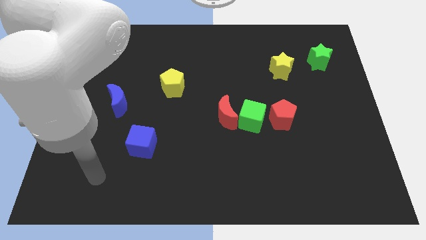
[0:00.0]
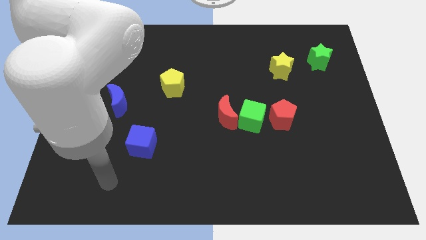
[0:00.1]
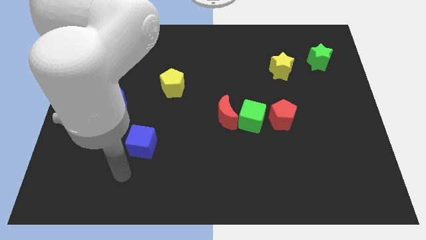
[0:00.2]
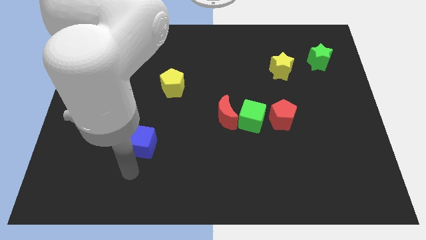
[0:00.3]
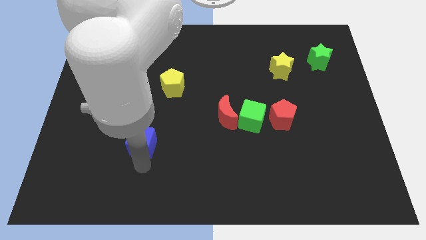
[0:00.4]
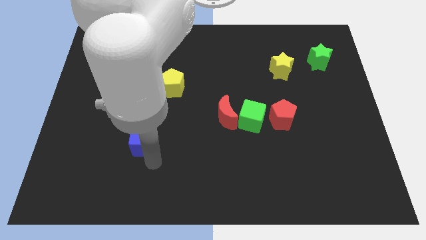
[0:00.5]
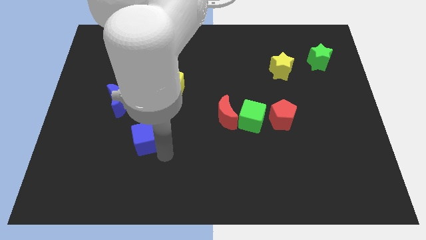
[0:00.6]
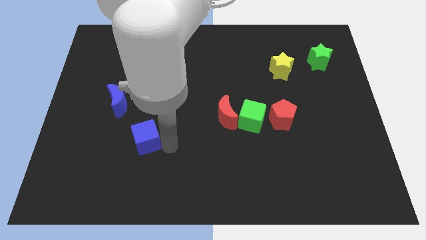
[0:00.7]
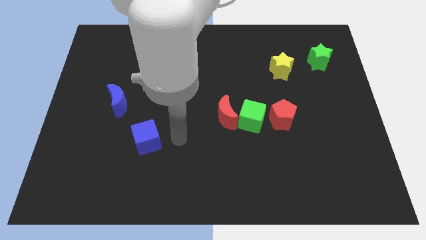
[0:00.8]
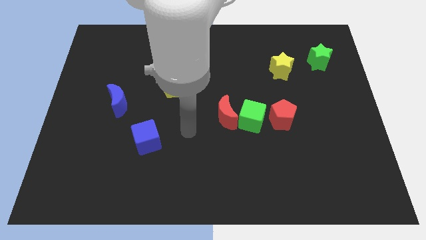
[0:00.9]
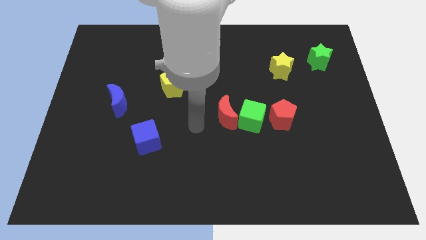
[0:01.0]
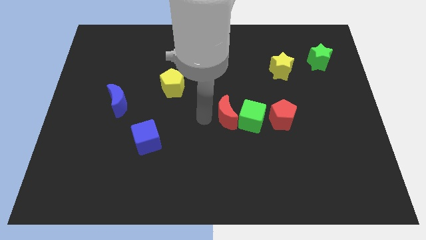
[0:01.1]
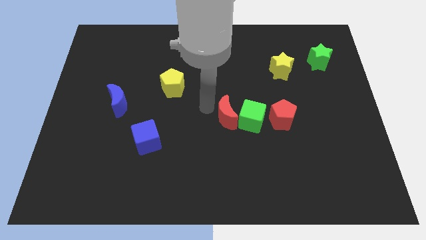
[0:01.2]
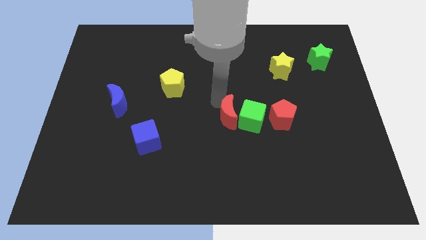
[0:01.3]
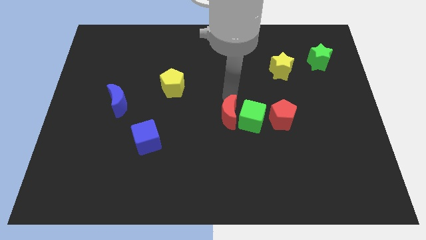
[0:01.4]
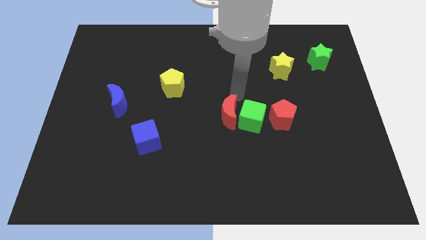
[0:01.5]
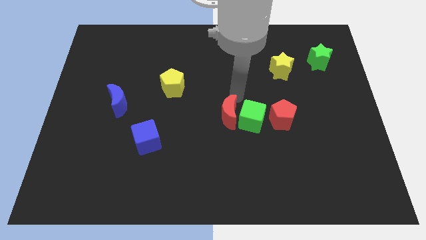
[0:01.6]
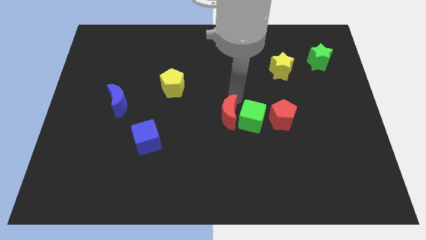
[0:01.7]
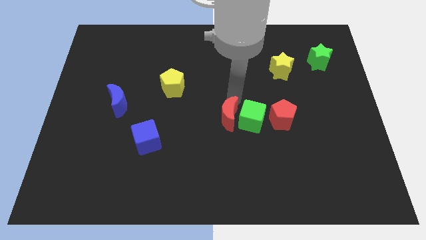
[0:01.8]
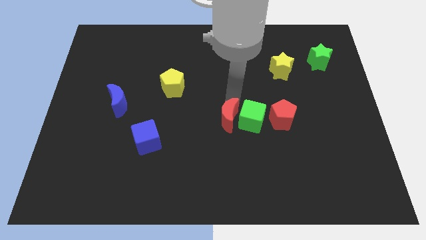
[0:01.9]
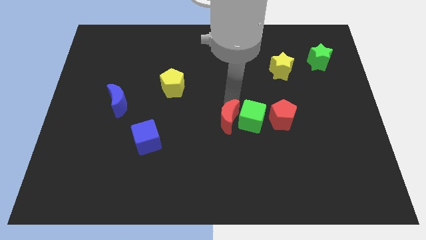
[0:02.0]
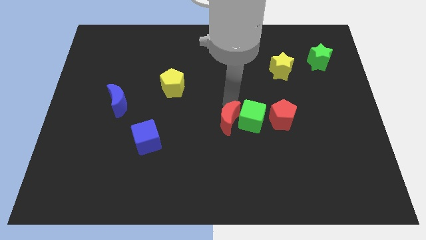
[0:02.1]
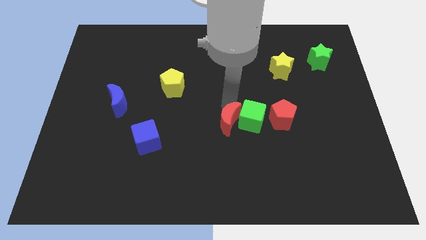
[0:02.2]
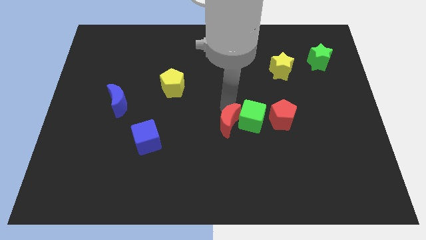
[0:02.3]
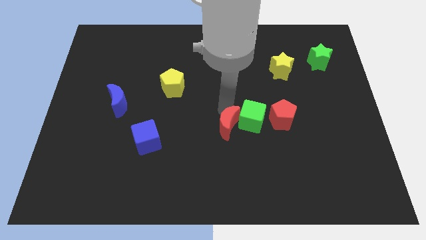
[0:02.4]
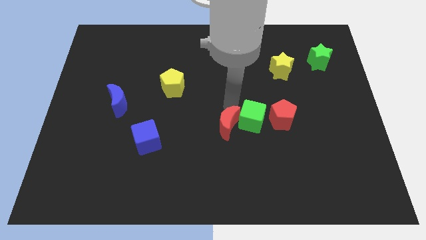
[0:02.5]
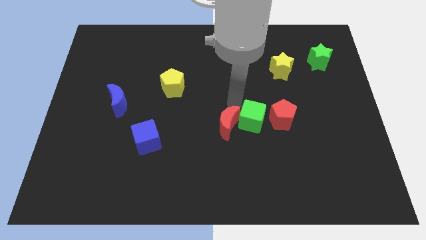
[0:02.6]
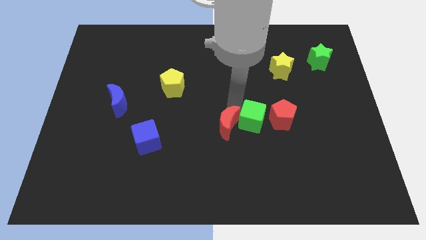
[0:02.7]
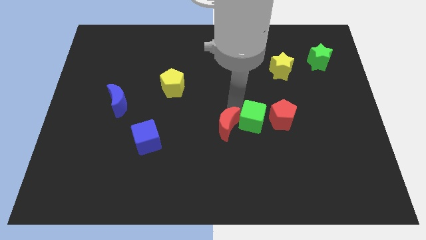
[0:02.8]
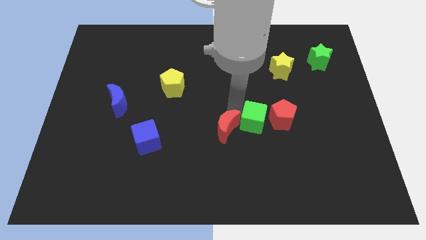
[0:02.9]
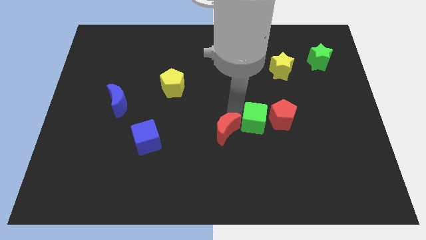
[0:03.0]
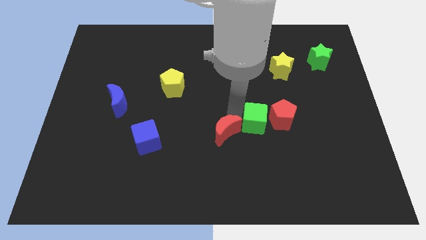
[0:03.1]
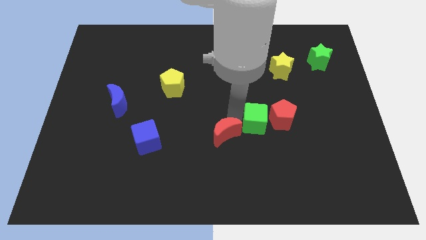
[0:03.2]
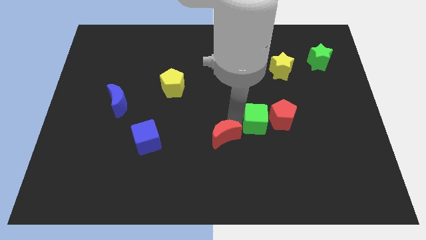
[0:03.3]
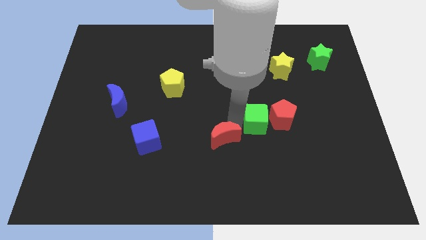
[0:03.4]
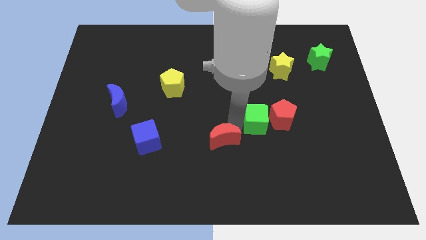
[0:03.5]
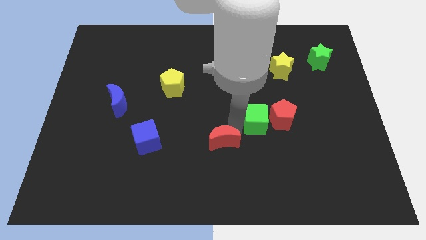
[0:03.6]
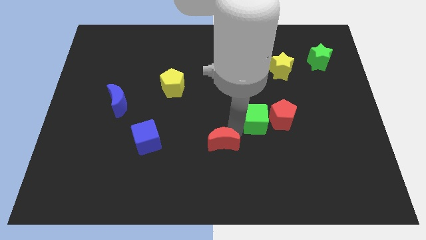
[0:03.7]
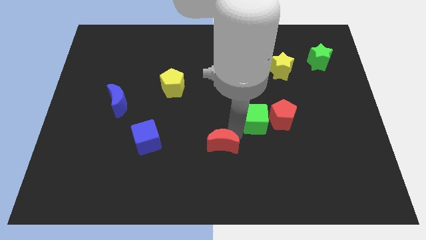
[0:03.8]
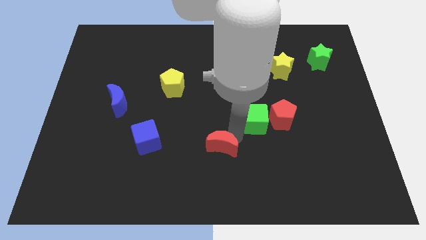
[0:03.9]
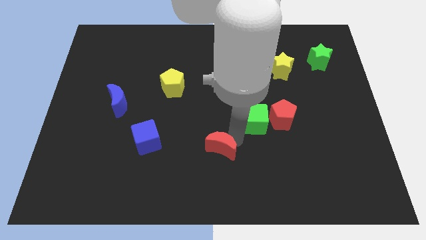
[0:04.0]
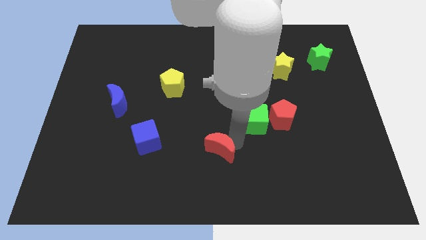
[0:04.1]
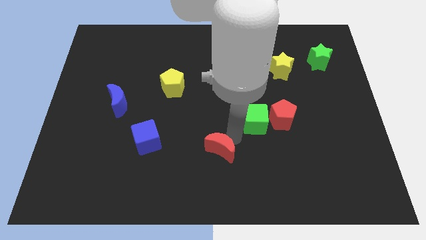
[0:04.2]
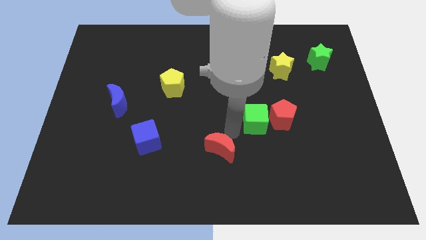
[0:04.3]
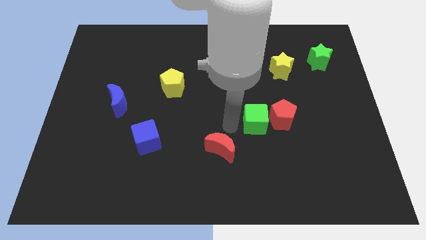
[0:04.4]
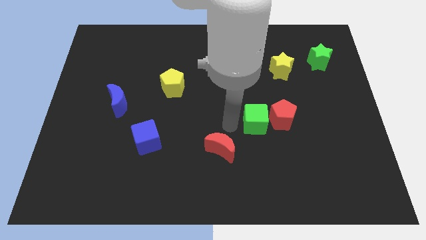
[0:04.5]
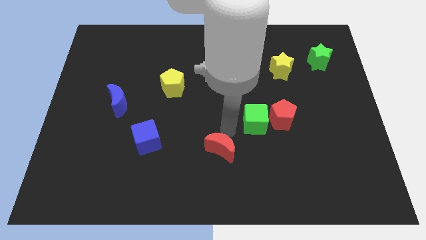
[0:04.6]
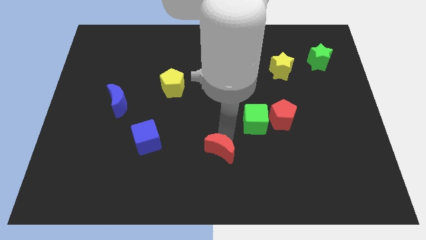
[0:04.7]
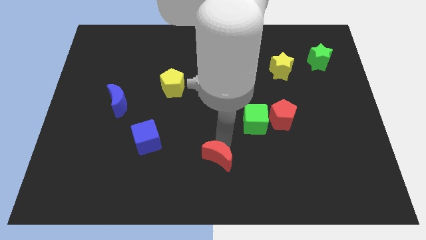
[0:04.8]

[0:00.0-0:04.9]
slide the red moon to the bottom side

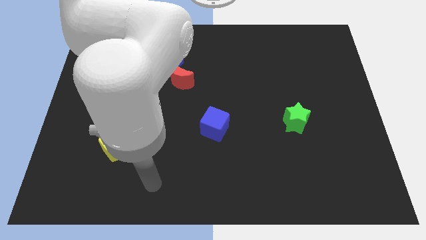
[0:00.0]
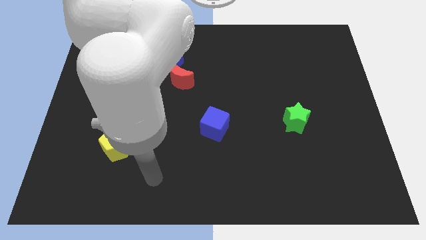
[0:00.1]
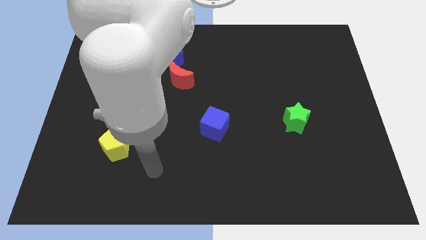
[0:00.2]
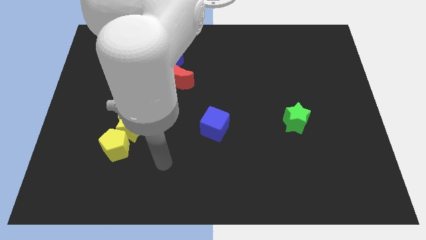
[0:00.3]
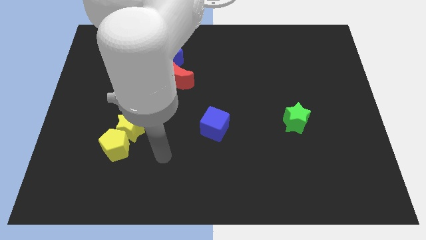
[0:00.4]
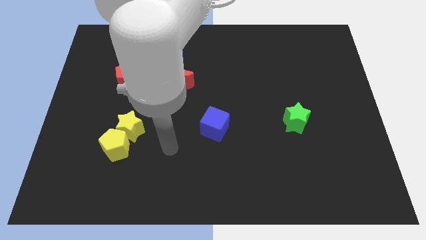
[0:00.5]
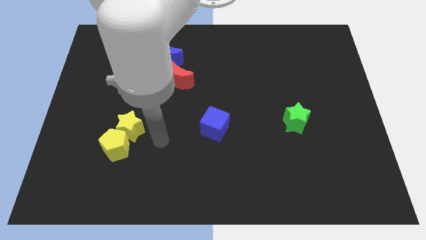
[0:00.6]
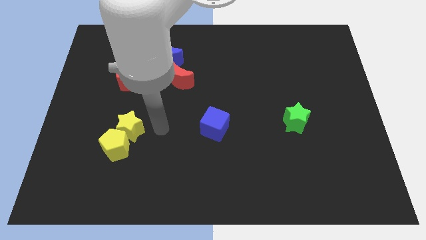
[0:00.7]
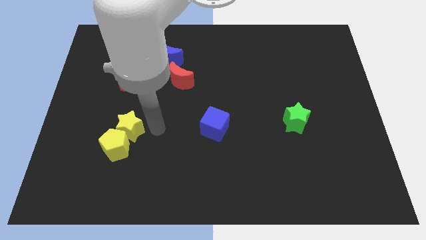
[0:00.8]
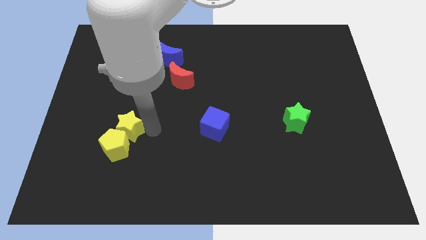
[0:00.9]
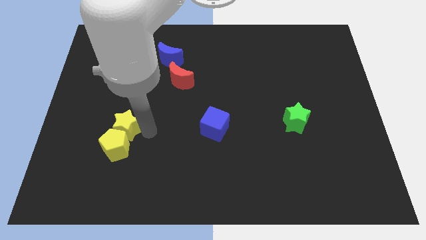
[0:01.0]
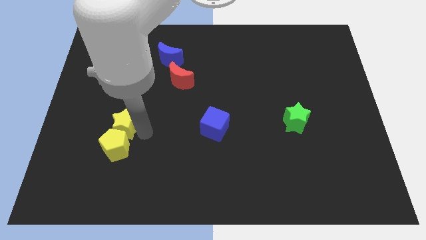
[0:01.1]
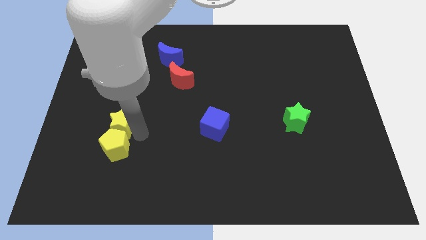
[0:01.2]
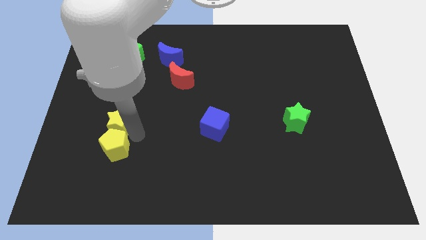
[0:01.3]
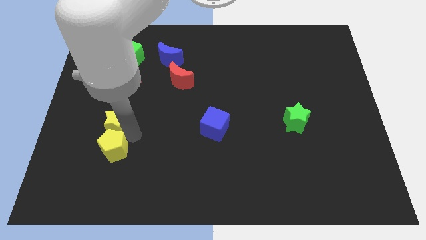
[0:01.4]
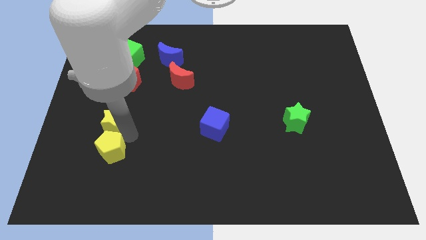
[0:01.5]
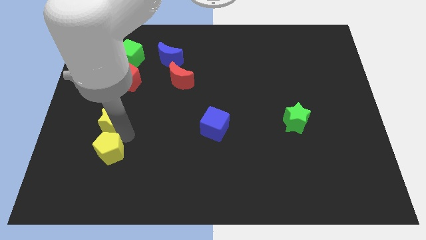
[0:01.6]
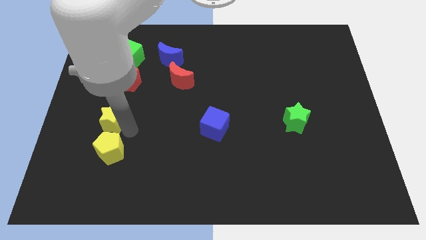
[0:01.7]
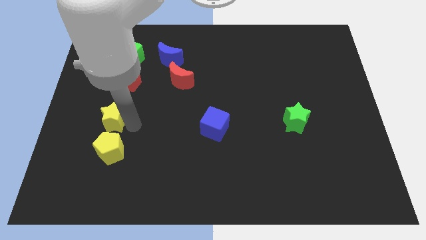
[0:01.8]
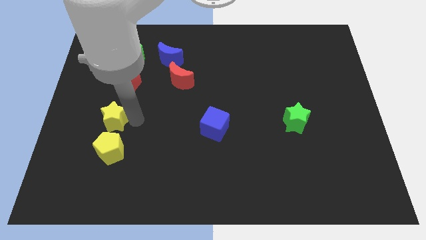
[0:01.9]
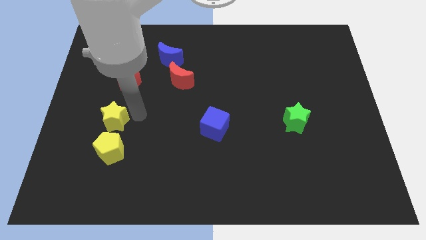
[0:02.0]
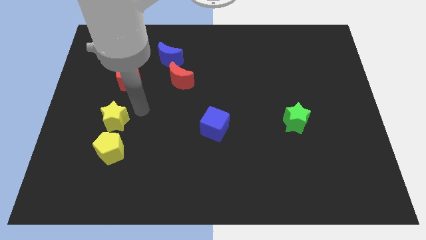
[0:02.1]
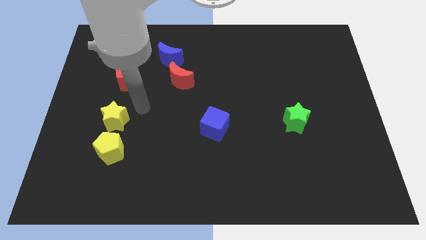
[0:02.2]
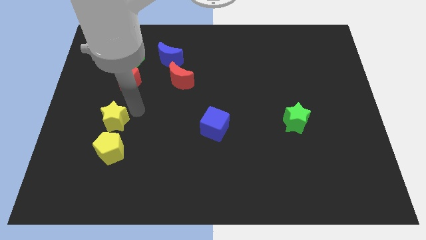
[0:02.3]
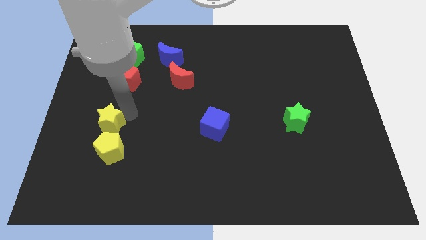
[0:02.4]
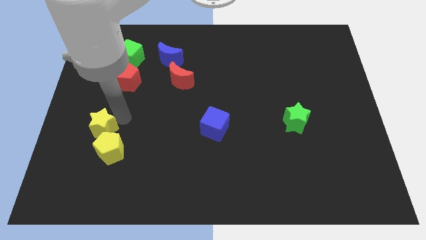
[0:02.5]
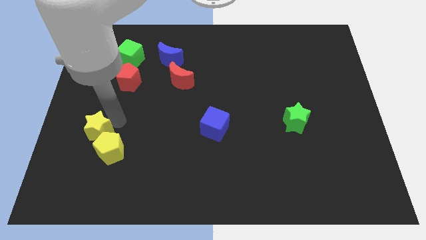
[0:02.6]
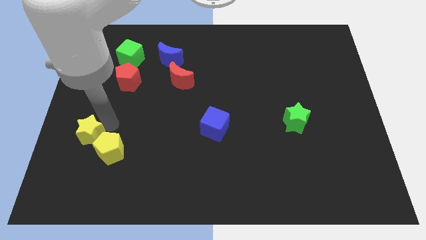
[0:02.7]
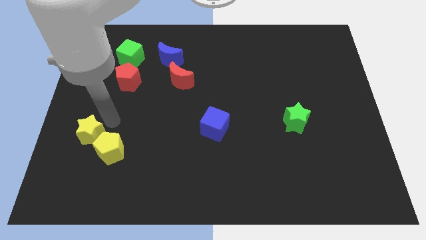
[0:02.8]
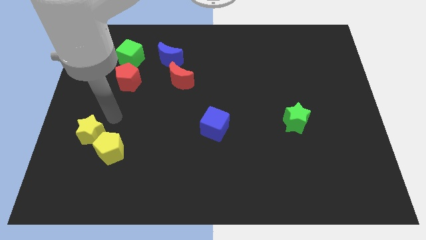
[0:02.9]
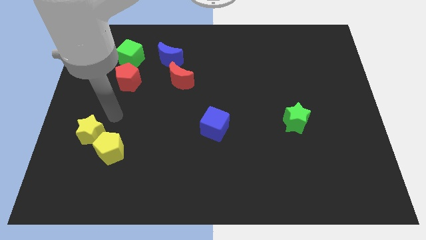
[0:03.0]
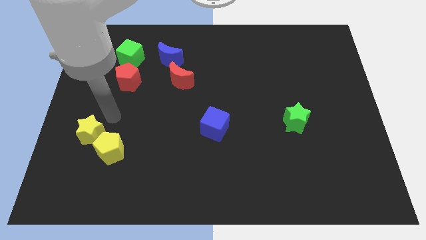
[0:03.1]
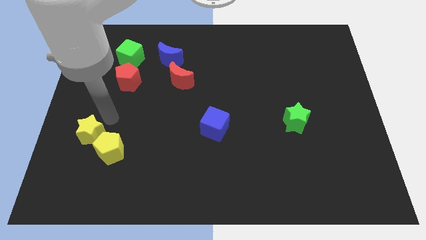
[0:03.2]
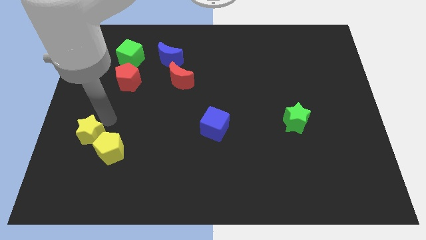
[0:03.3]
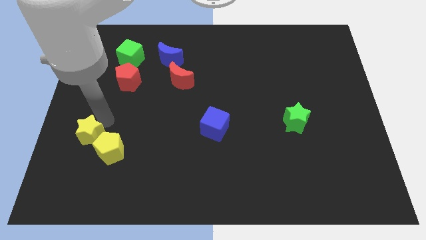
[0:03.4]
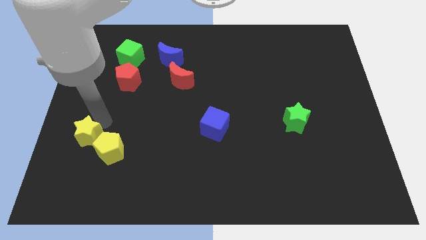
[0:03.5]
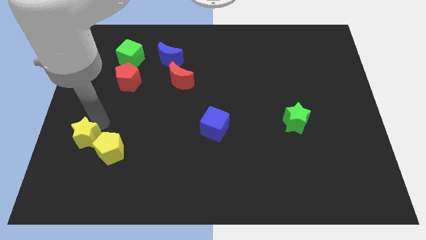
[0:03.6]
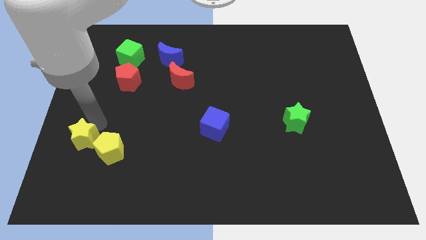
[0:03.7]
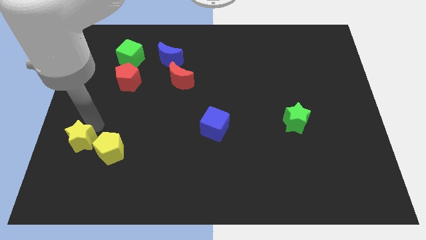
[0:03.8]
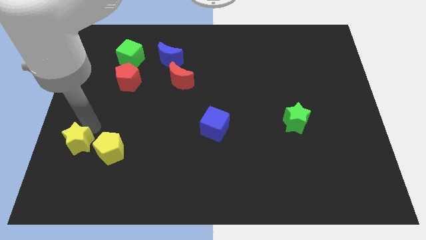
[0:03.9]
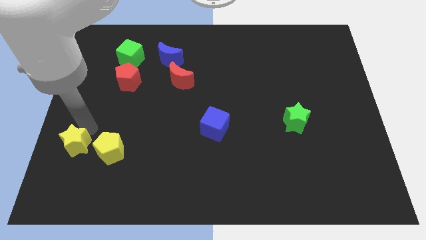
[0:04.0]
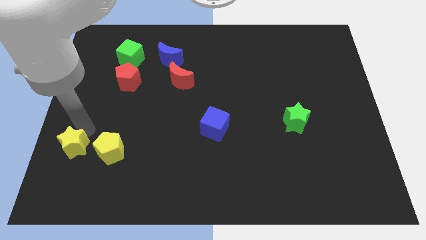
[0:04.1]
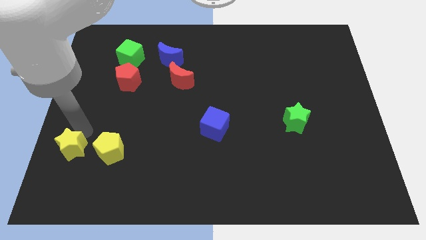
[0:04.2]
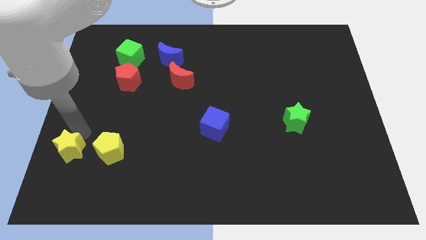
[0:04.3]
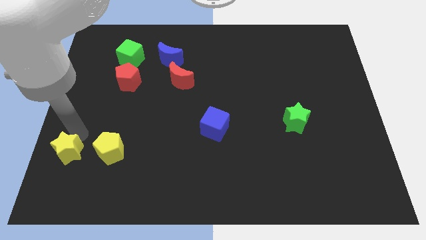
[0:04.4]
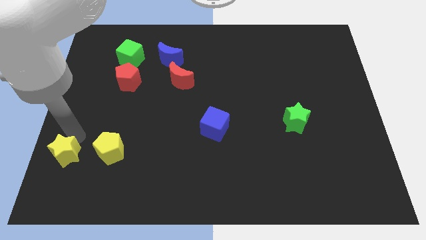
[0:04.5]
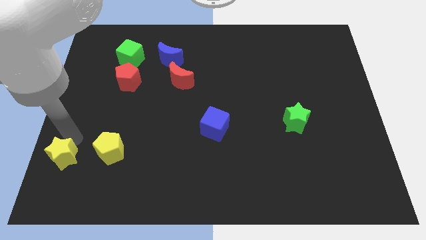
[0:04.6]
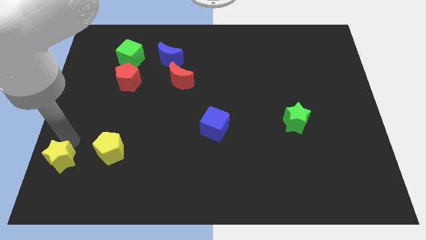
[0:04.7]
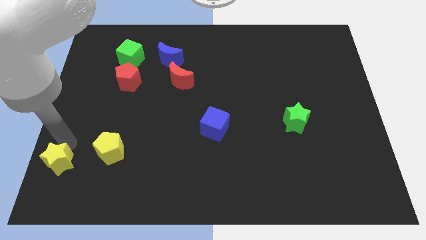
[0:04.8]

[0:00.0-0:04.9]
slide the yellow star to the lower left corner
